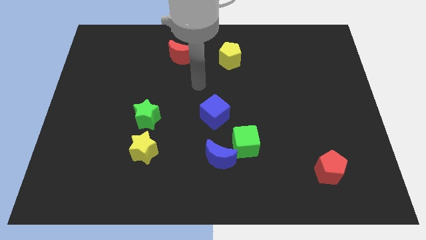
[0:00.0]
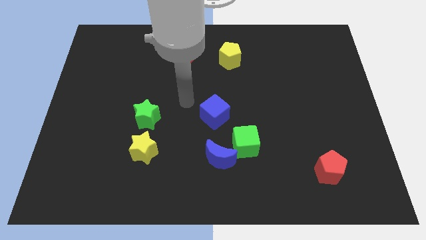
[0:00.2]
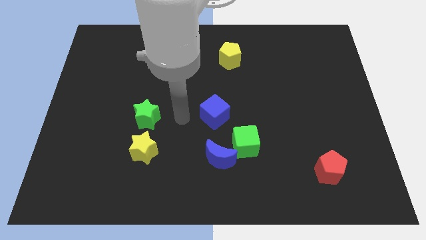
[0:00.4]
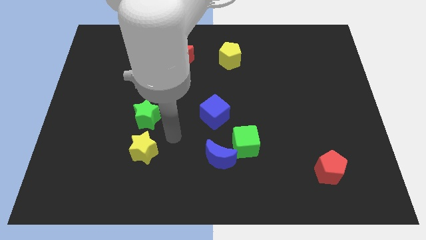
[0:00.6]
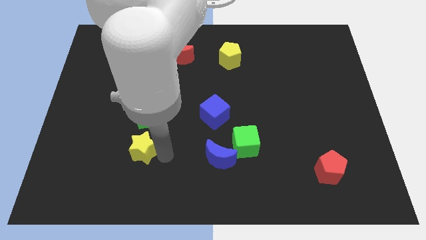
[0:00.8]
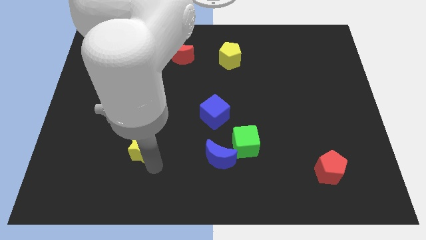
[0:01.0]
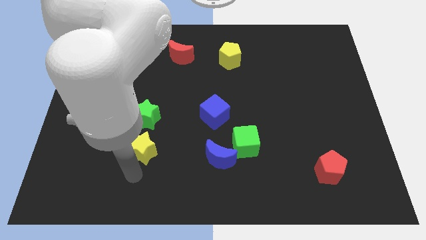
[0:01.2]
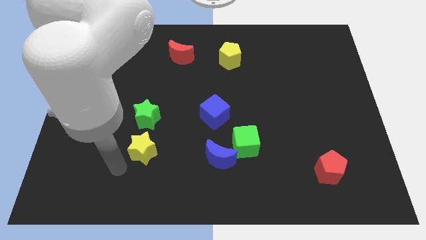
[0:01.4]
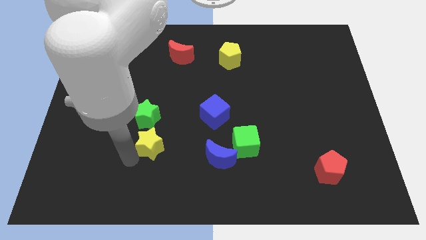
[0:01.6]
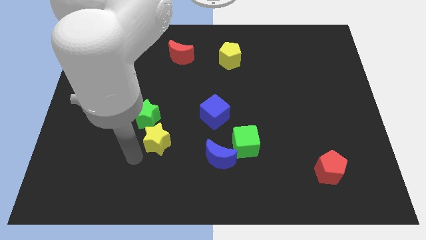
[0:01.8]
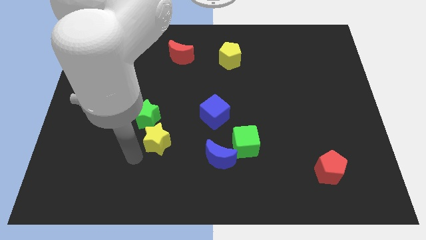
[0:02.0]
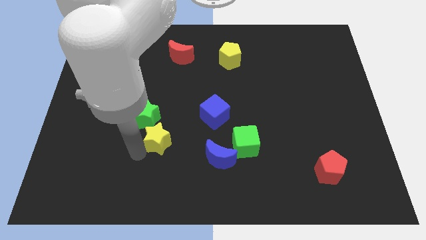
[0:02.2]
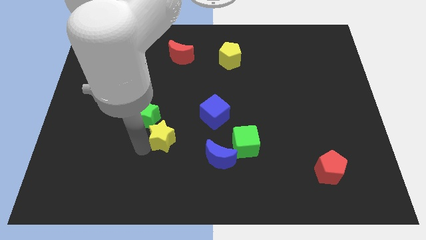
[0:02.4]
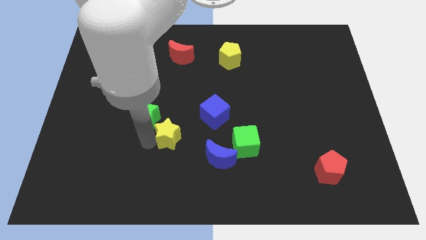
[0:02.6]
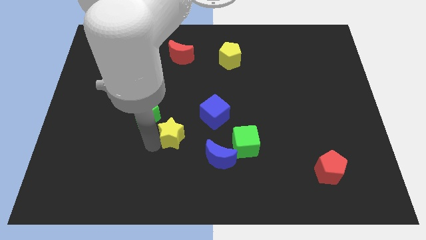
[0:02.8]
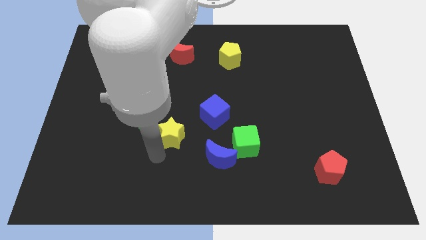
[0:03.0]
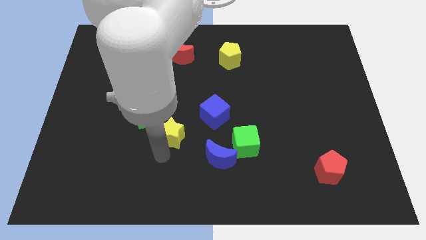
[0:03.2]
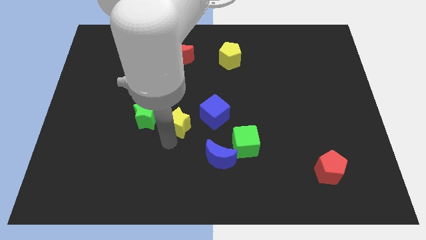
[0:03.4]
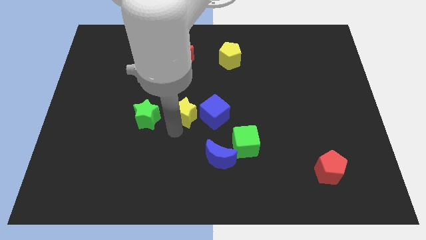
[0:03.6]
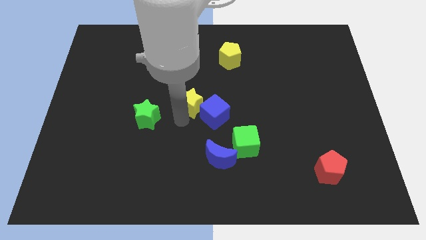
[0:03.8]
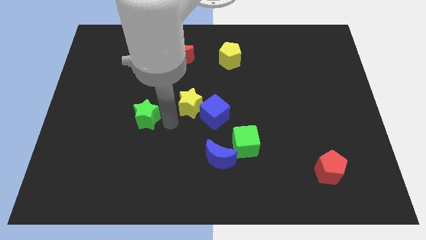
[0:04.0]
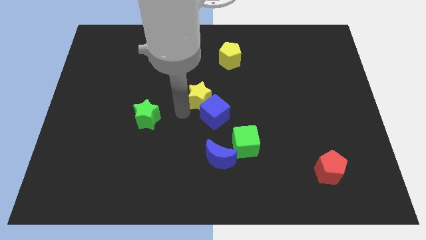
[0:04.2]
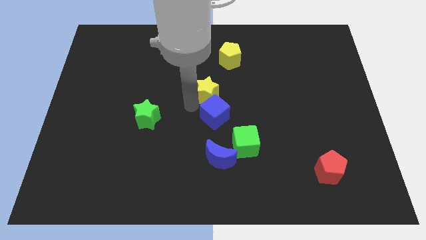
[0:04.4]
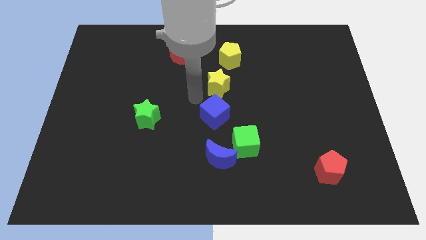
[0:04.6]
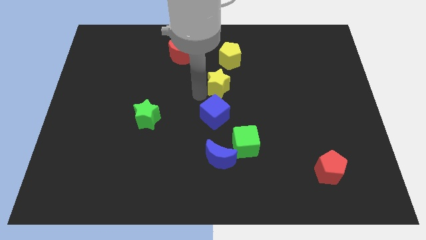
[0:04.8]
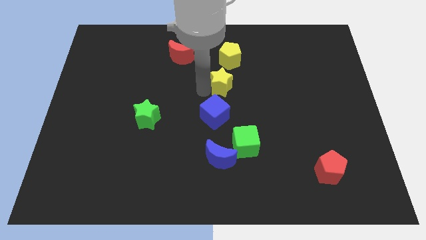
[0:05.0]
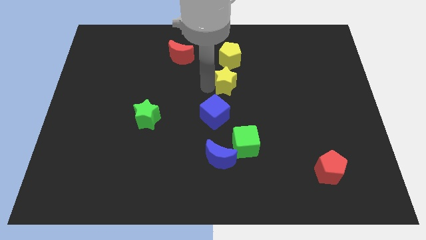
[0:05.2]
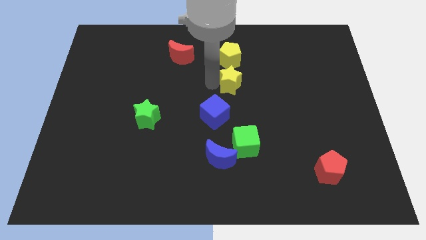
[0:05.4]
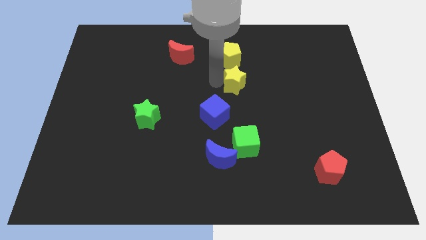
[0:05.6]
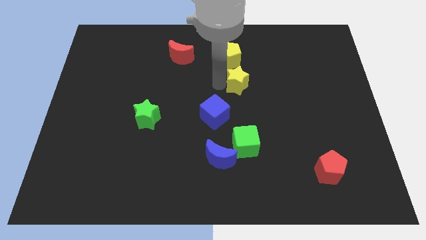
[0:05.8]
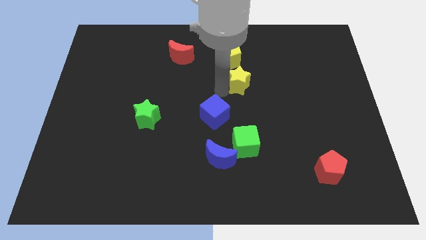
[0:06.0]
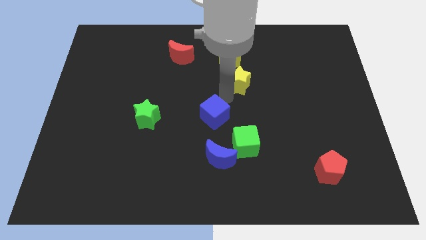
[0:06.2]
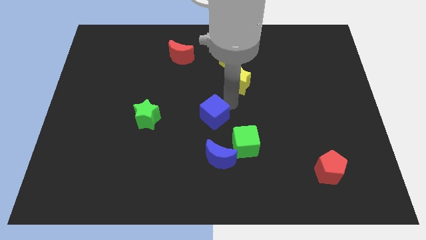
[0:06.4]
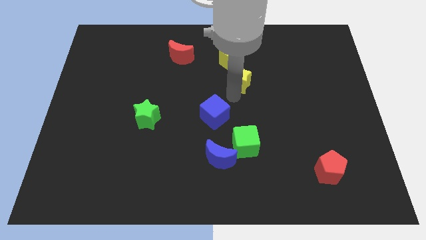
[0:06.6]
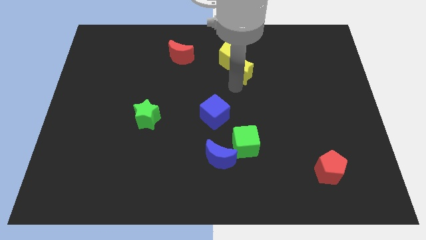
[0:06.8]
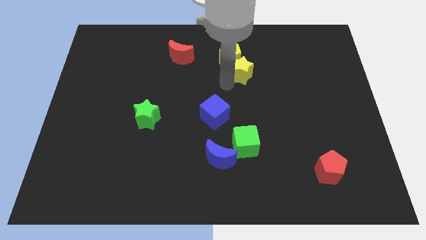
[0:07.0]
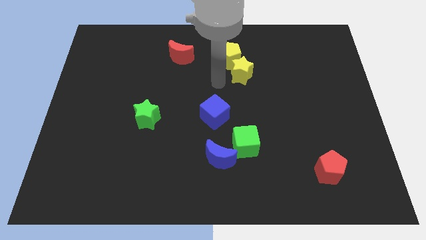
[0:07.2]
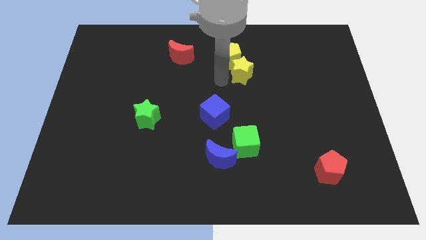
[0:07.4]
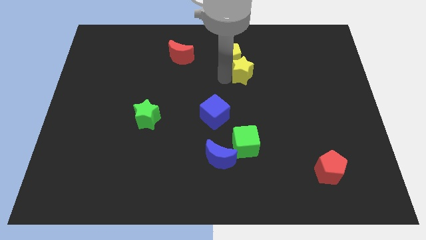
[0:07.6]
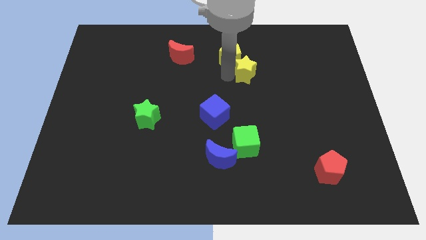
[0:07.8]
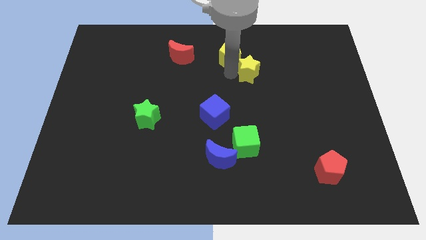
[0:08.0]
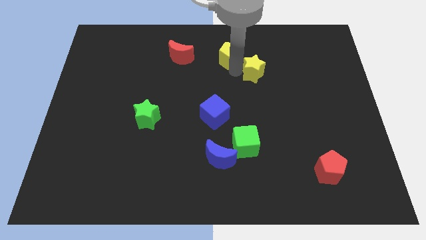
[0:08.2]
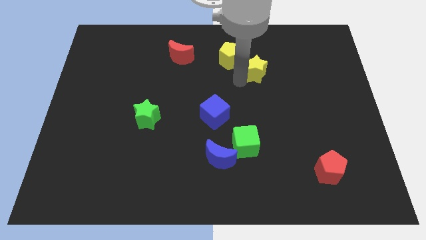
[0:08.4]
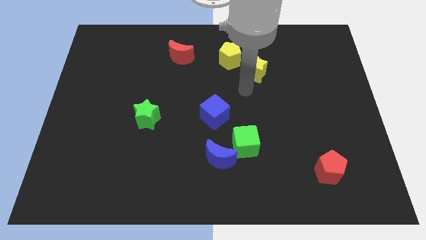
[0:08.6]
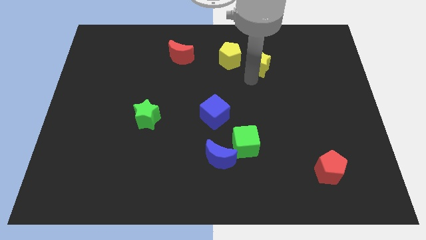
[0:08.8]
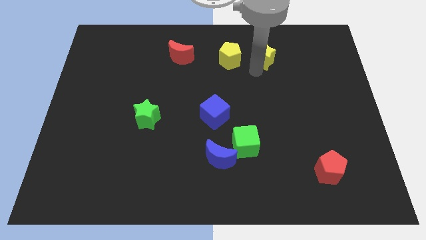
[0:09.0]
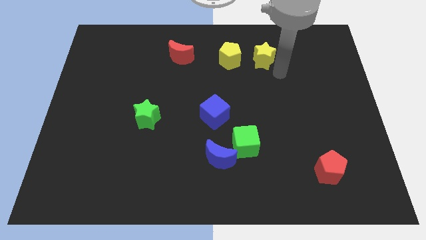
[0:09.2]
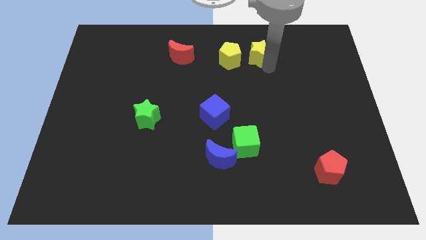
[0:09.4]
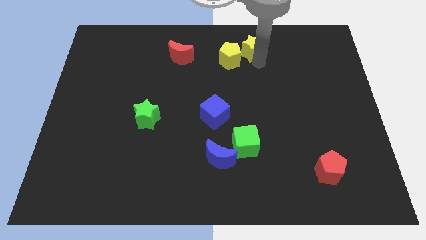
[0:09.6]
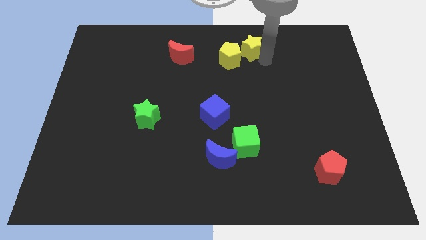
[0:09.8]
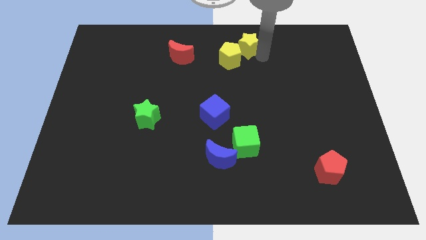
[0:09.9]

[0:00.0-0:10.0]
put the yellow star to the towards your base

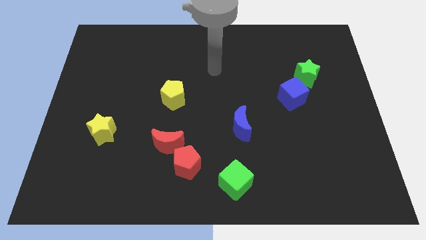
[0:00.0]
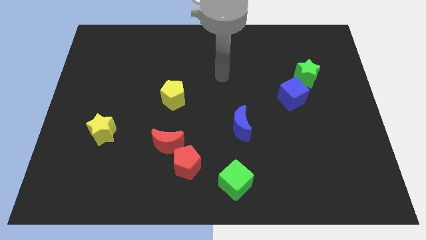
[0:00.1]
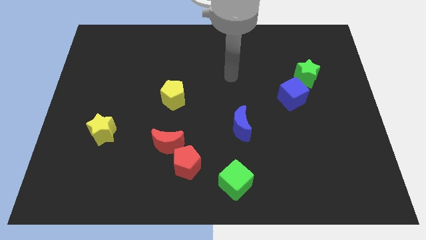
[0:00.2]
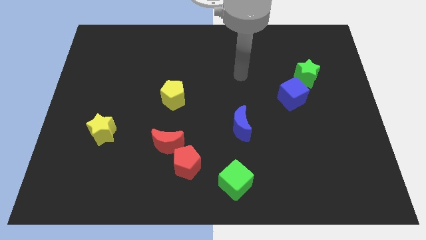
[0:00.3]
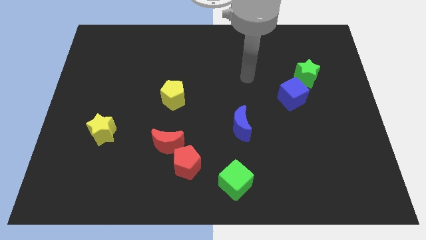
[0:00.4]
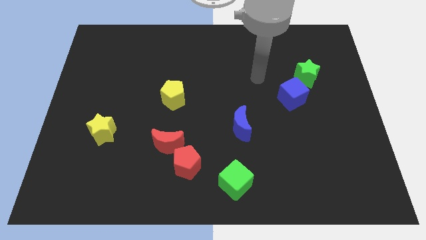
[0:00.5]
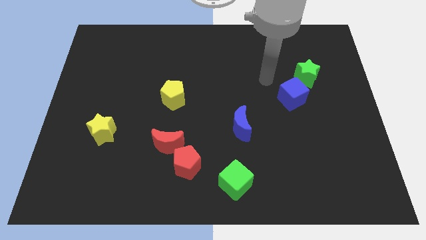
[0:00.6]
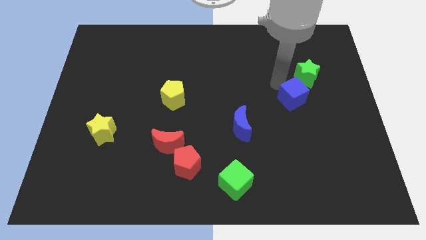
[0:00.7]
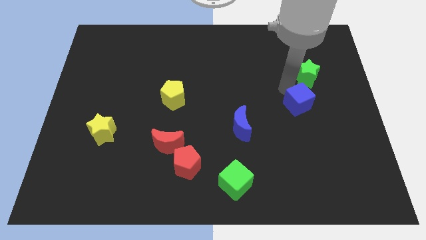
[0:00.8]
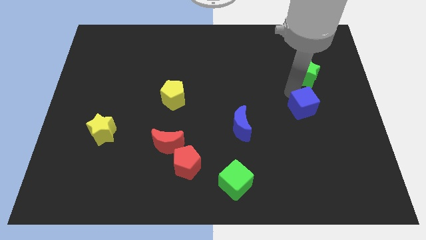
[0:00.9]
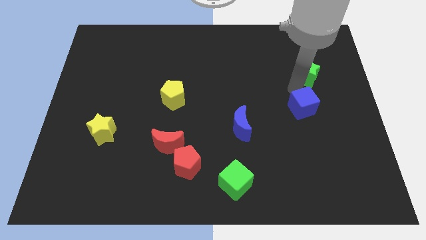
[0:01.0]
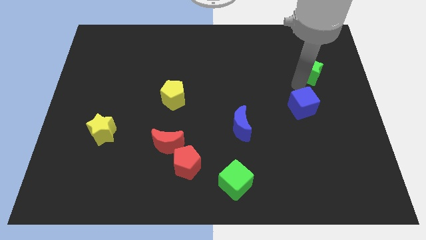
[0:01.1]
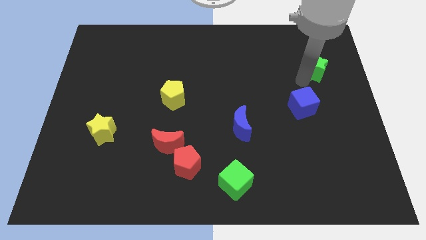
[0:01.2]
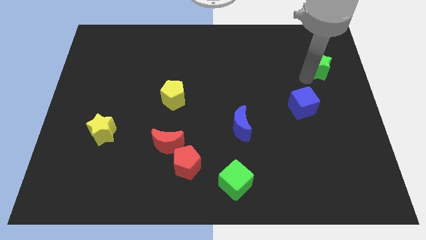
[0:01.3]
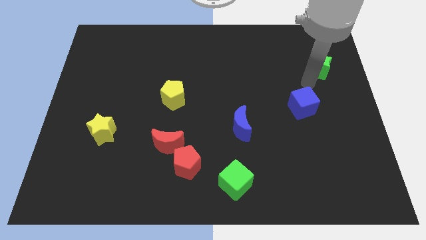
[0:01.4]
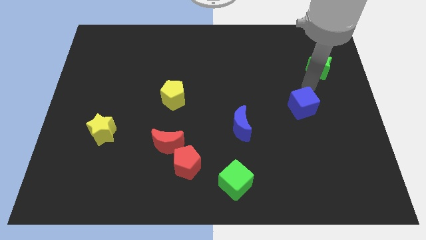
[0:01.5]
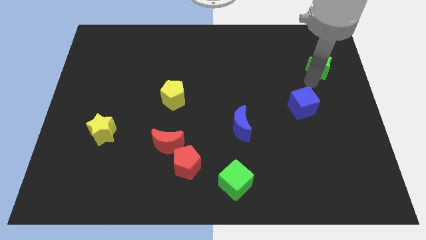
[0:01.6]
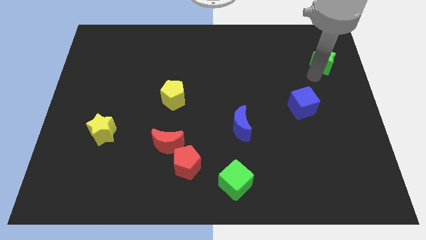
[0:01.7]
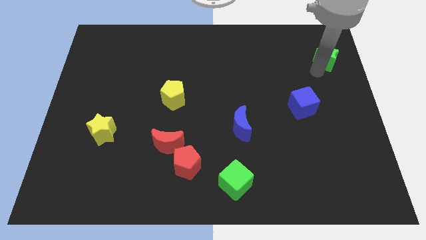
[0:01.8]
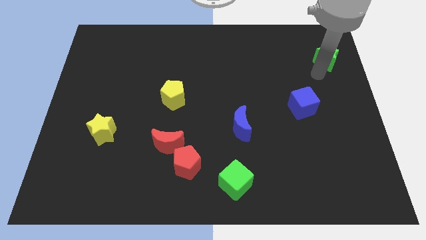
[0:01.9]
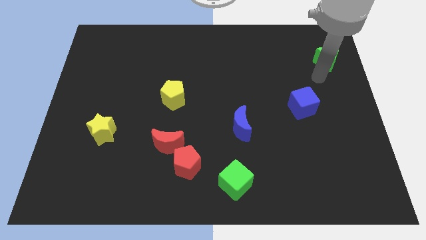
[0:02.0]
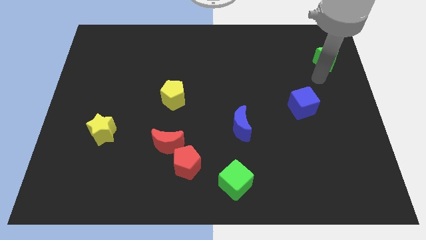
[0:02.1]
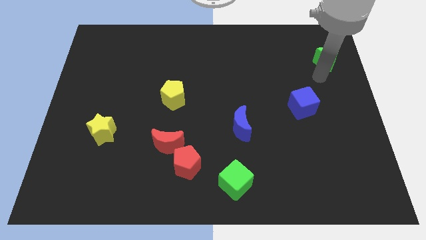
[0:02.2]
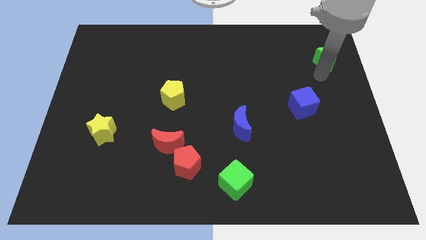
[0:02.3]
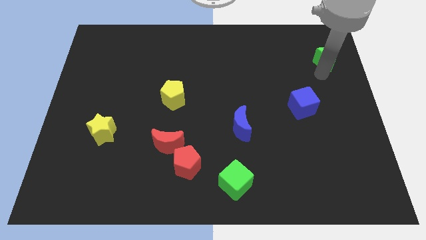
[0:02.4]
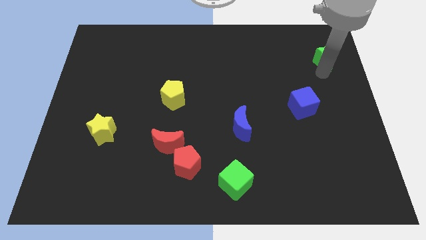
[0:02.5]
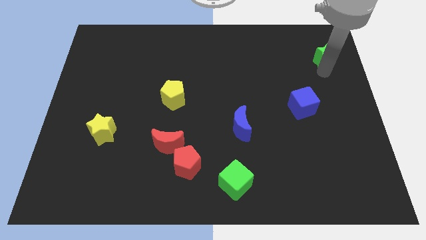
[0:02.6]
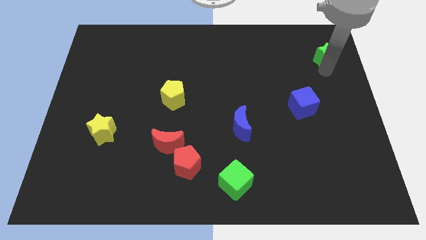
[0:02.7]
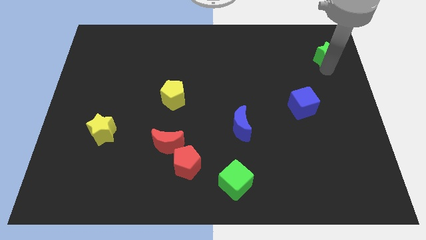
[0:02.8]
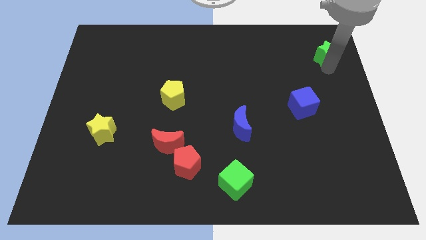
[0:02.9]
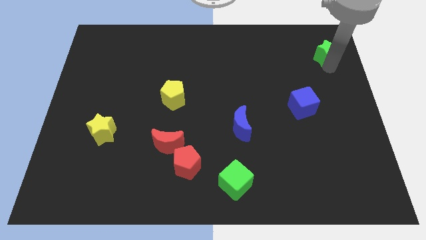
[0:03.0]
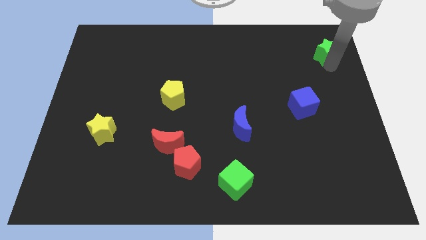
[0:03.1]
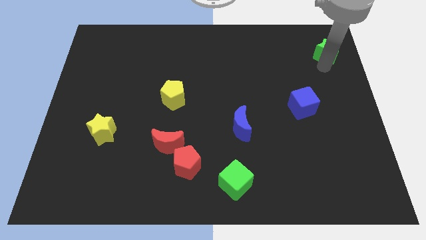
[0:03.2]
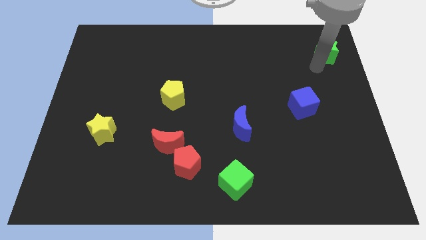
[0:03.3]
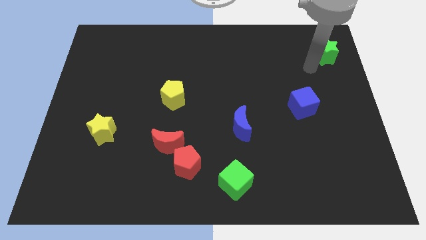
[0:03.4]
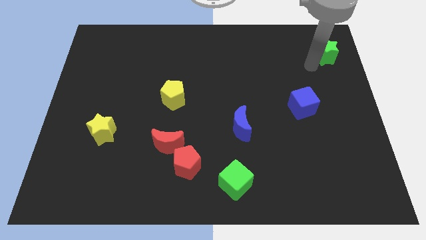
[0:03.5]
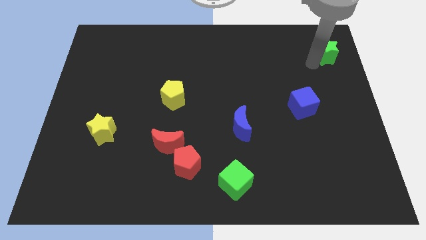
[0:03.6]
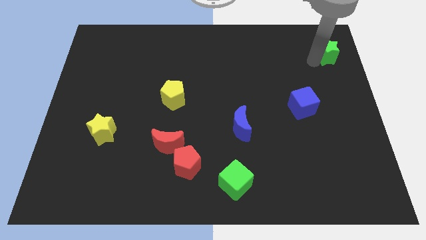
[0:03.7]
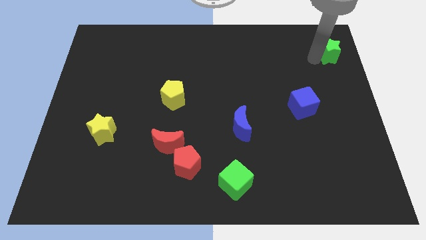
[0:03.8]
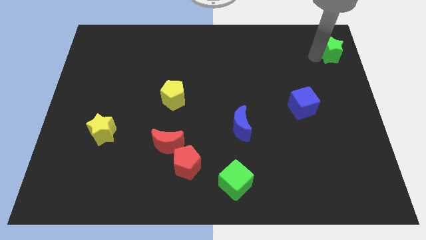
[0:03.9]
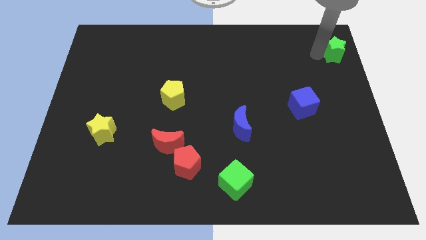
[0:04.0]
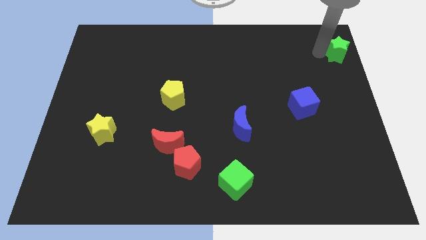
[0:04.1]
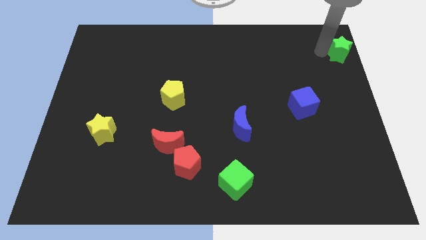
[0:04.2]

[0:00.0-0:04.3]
slide the green star to the top right corner
